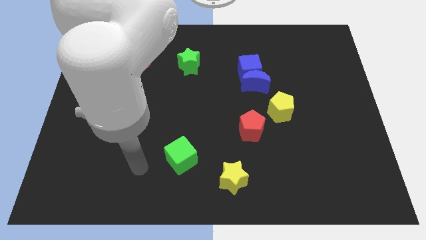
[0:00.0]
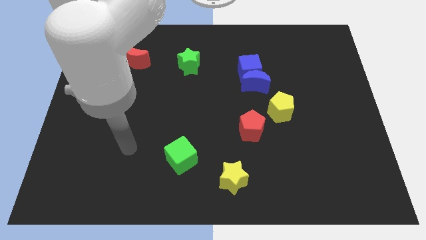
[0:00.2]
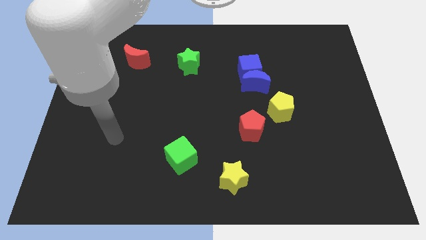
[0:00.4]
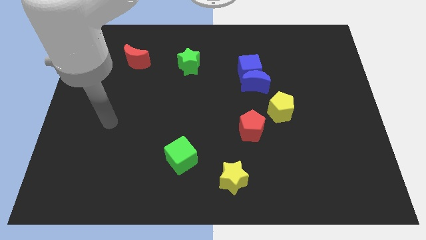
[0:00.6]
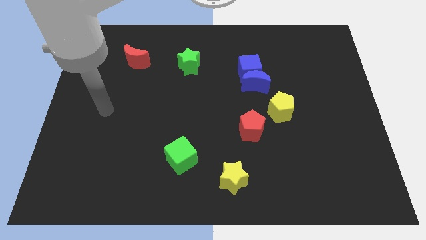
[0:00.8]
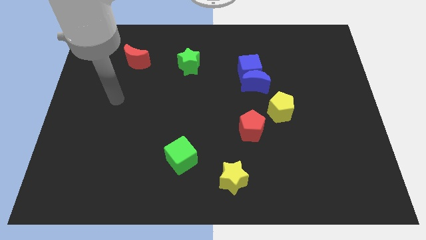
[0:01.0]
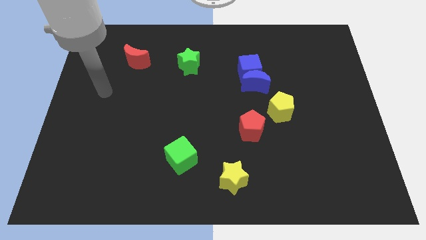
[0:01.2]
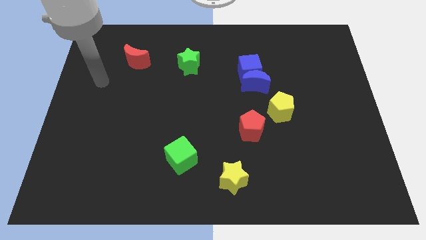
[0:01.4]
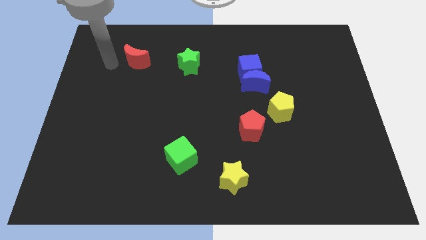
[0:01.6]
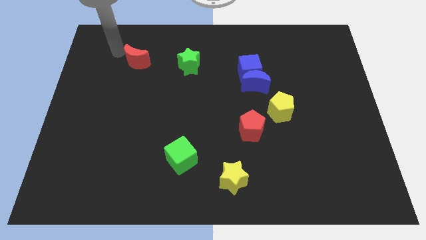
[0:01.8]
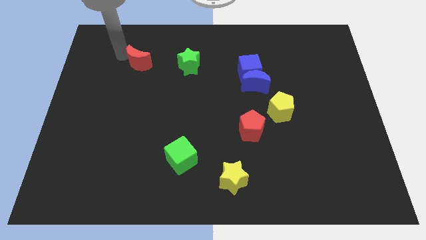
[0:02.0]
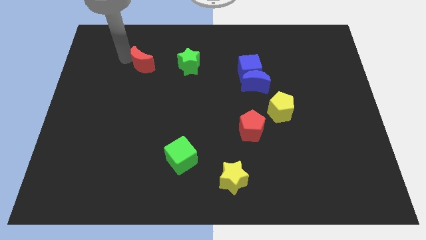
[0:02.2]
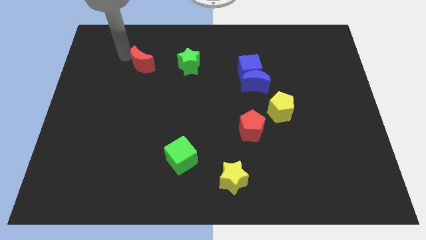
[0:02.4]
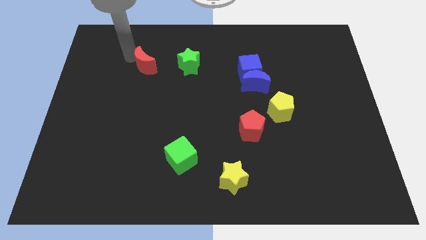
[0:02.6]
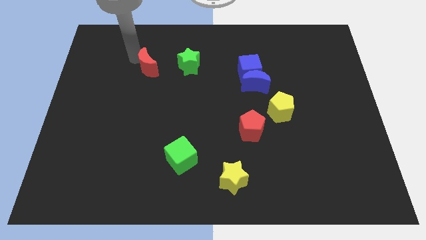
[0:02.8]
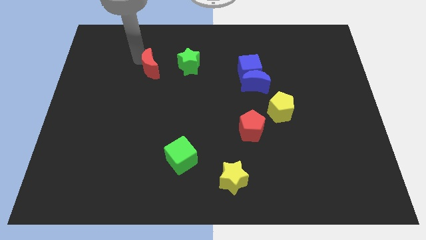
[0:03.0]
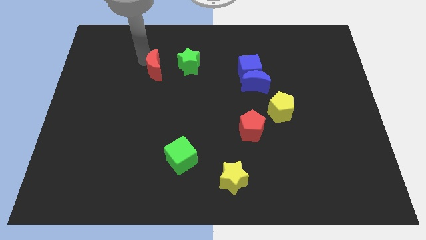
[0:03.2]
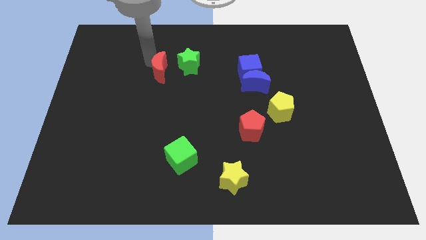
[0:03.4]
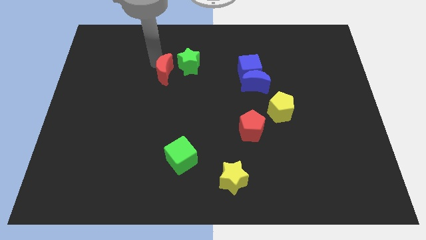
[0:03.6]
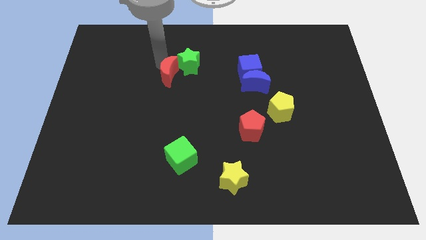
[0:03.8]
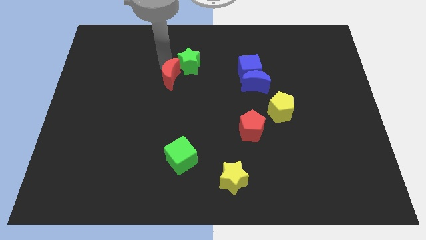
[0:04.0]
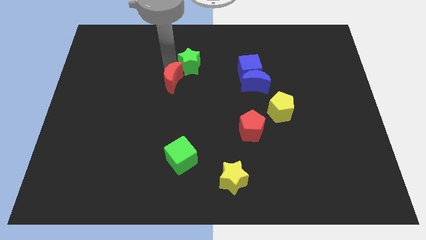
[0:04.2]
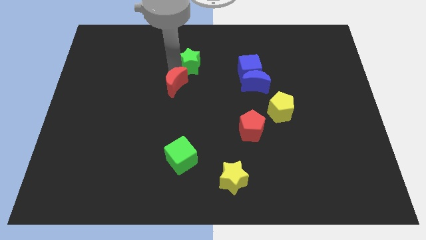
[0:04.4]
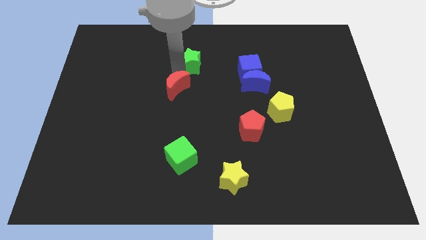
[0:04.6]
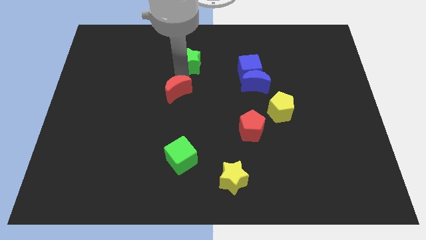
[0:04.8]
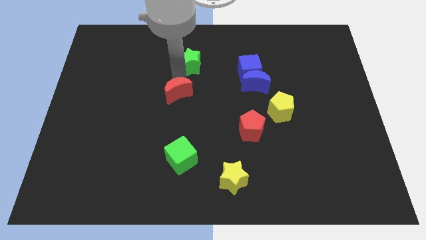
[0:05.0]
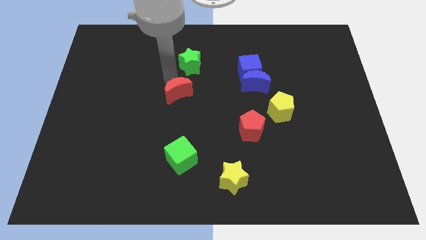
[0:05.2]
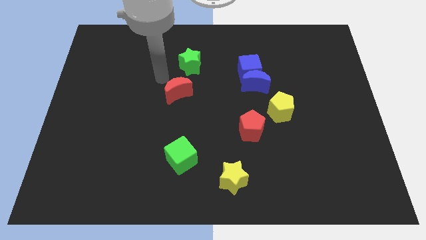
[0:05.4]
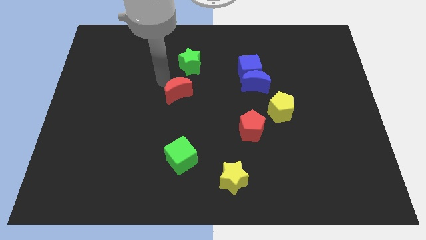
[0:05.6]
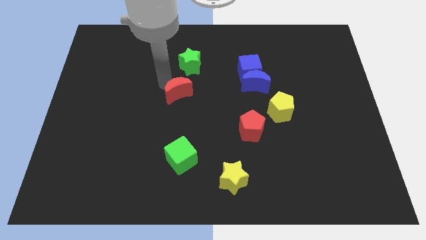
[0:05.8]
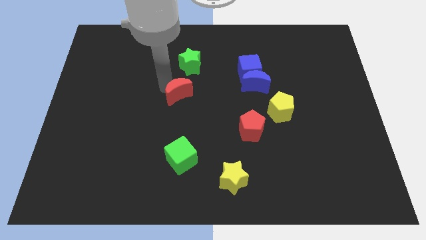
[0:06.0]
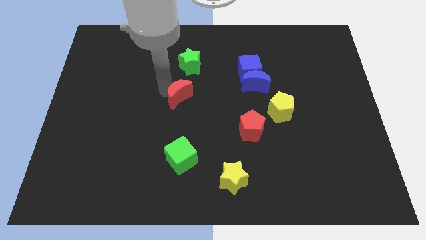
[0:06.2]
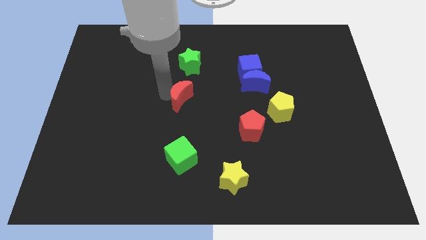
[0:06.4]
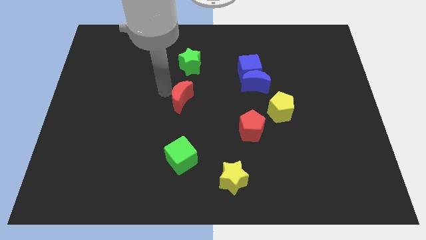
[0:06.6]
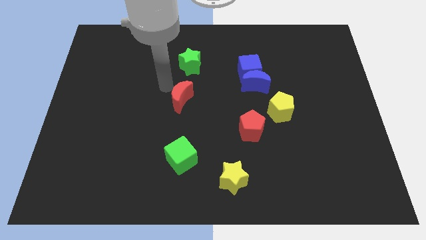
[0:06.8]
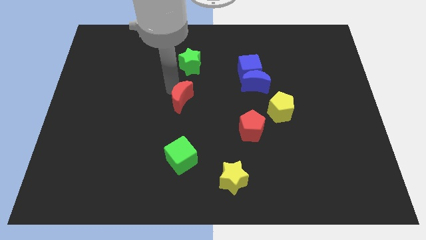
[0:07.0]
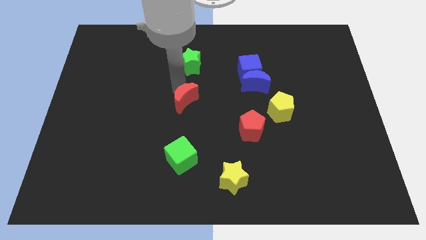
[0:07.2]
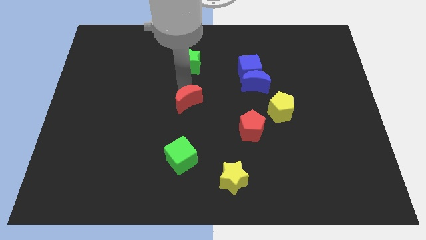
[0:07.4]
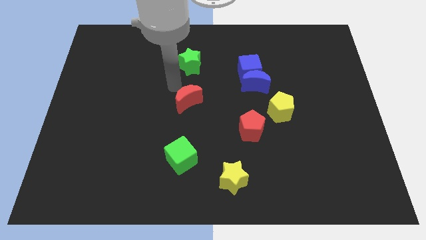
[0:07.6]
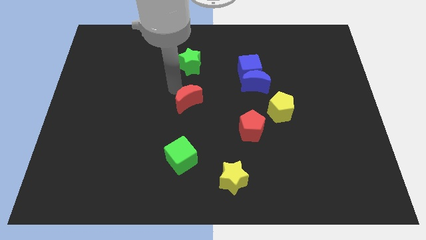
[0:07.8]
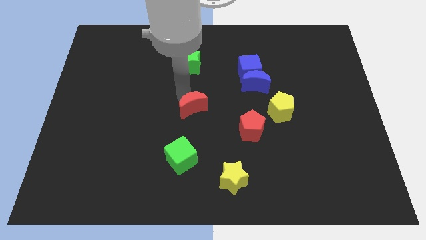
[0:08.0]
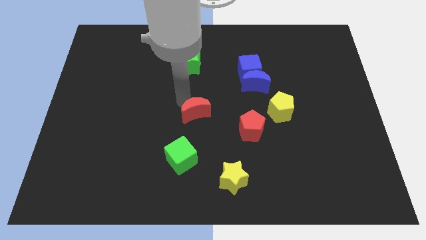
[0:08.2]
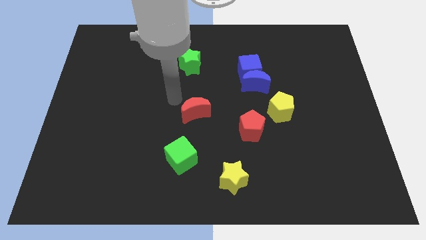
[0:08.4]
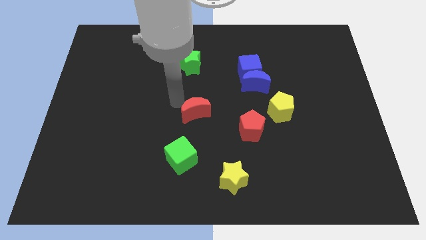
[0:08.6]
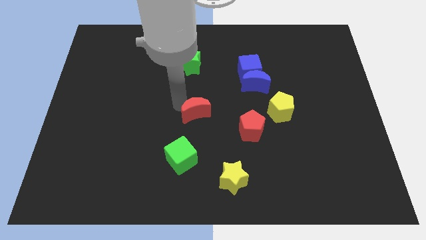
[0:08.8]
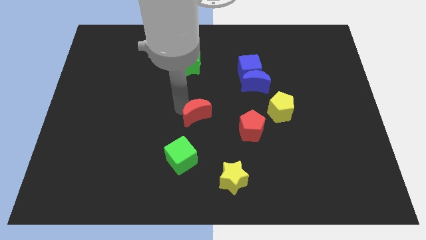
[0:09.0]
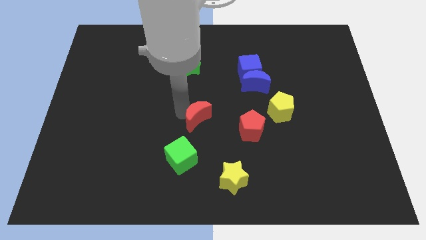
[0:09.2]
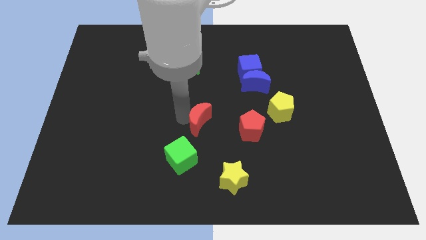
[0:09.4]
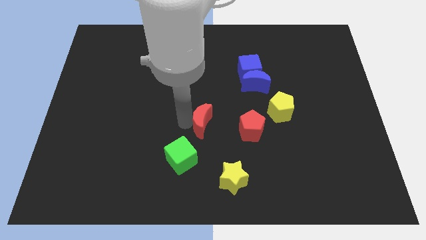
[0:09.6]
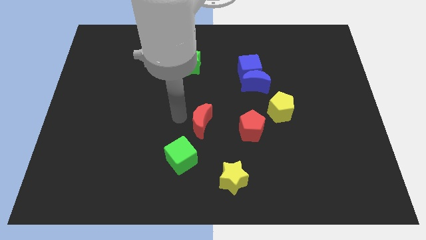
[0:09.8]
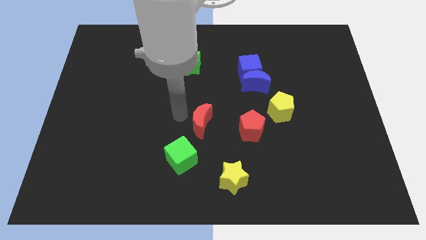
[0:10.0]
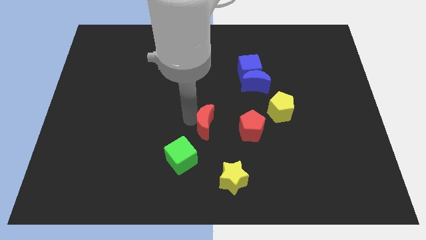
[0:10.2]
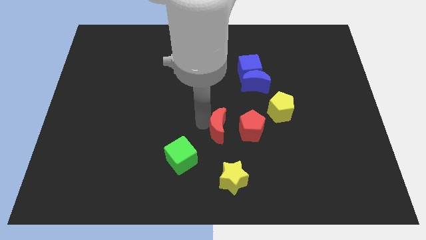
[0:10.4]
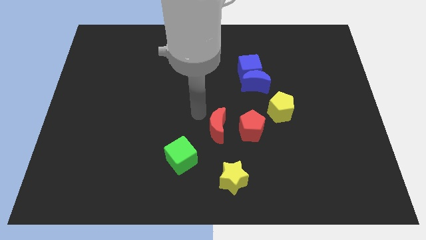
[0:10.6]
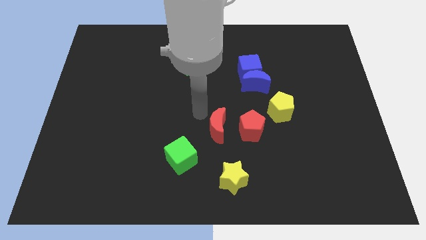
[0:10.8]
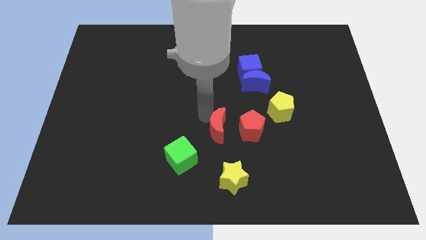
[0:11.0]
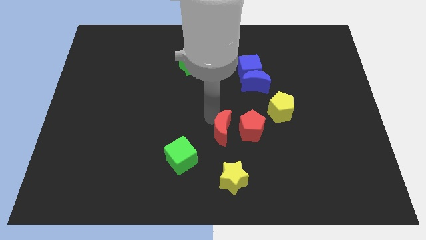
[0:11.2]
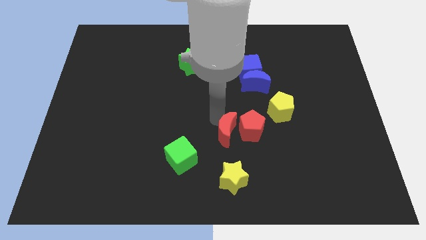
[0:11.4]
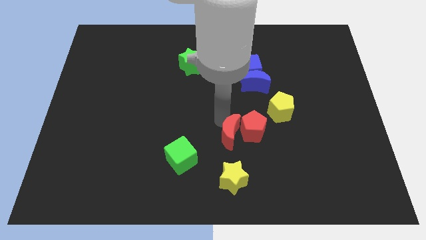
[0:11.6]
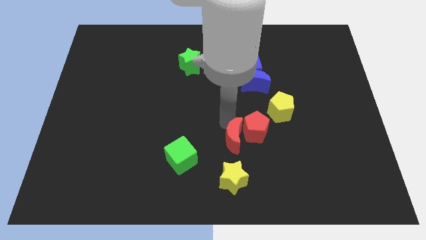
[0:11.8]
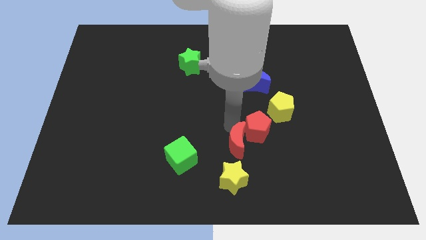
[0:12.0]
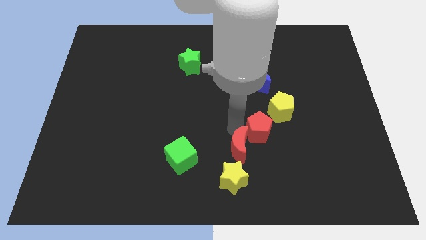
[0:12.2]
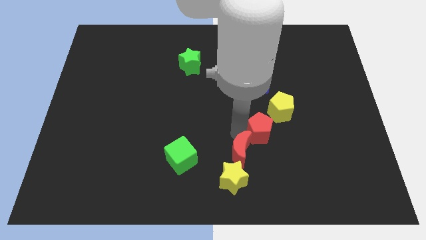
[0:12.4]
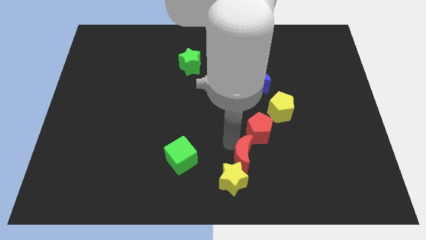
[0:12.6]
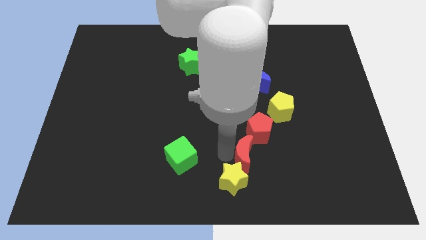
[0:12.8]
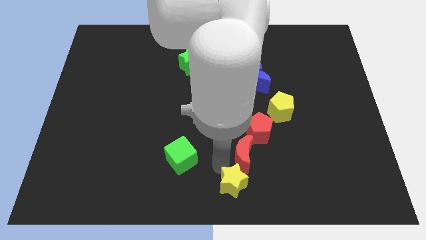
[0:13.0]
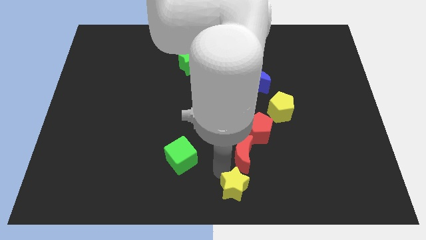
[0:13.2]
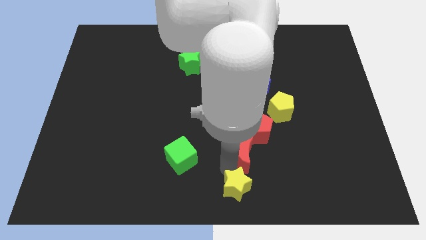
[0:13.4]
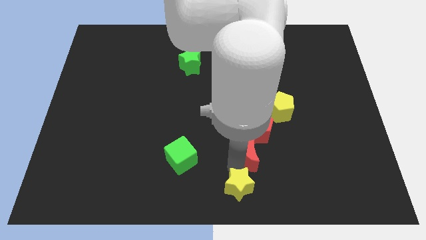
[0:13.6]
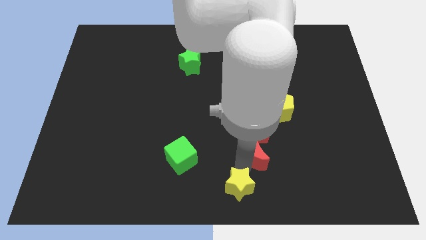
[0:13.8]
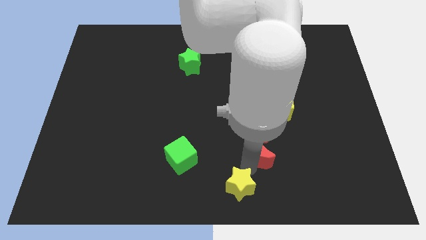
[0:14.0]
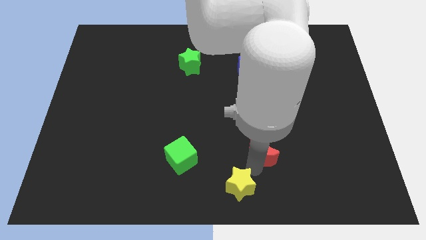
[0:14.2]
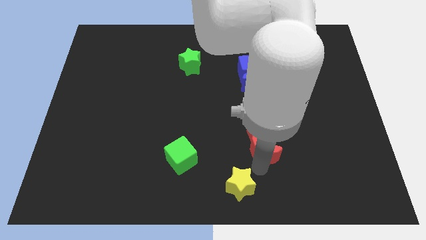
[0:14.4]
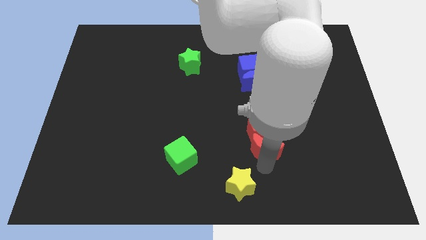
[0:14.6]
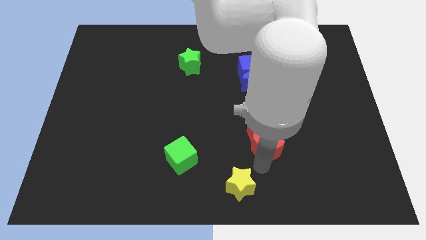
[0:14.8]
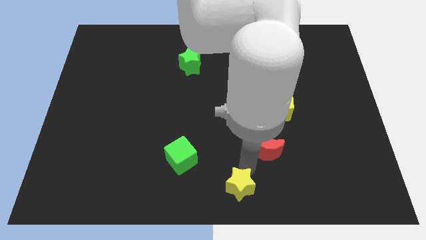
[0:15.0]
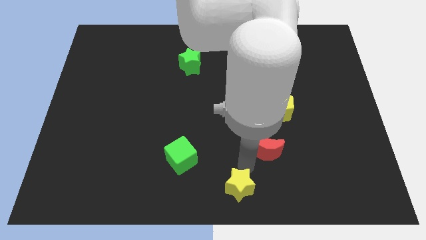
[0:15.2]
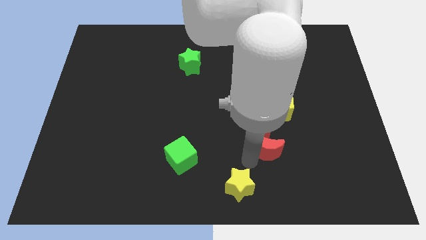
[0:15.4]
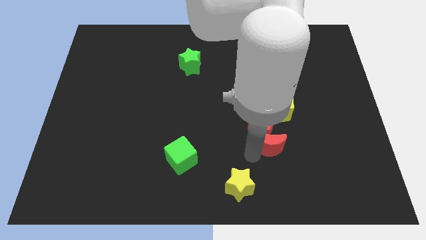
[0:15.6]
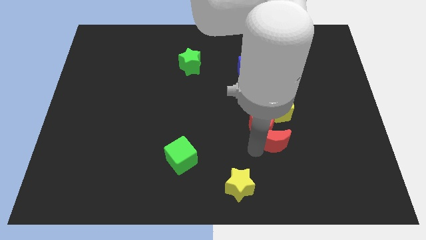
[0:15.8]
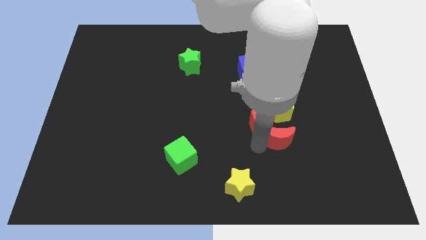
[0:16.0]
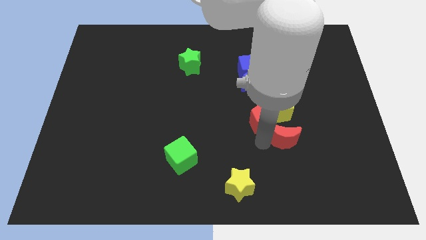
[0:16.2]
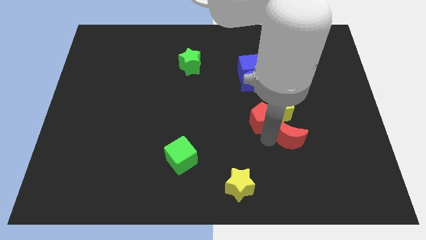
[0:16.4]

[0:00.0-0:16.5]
push the red moon to the bottom right of the yellow pentagon
